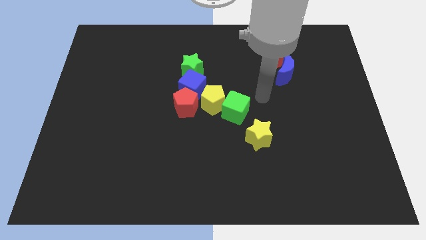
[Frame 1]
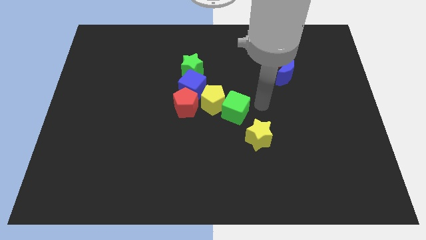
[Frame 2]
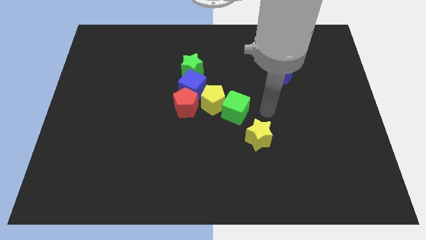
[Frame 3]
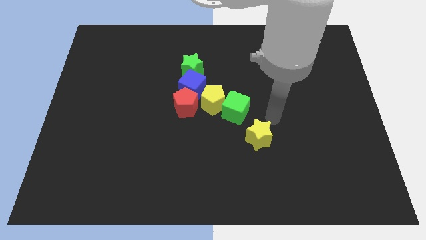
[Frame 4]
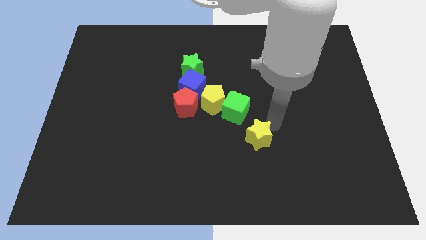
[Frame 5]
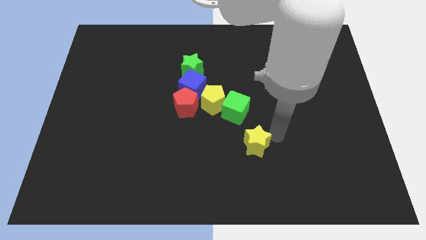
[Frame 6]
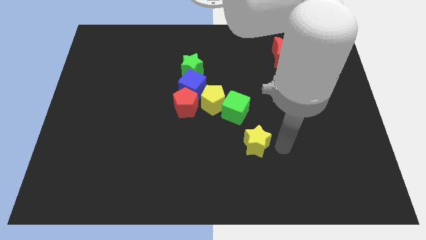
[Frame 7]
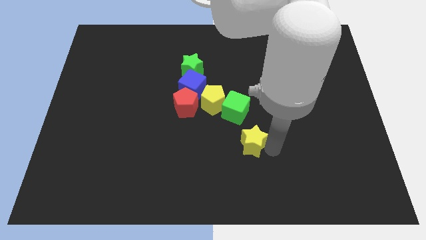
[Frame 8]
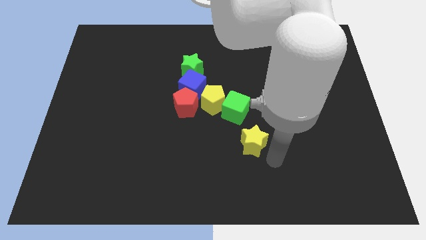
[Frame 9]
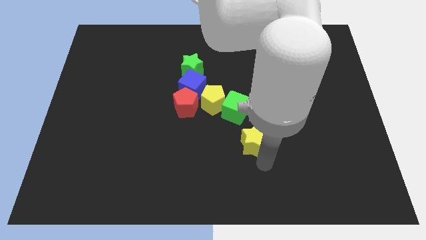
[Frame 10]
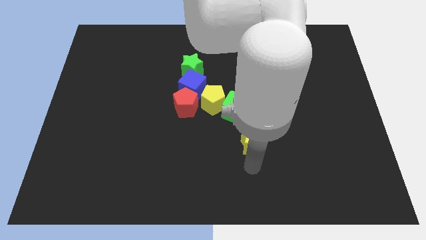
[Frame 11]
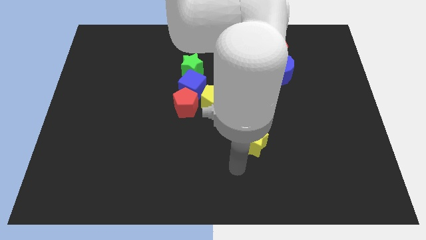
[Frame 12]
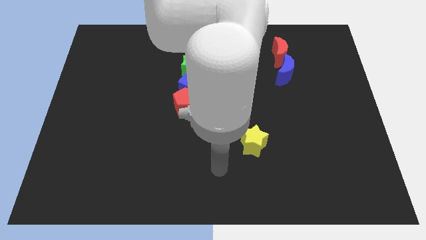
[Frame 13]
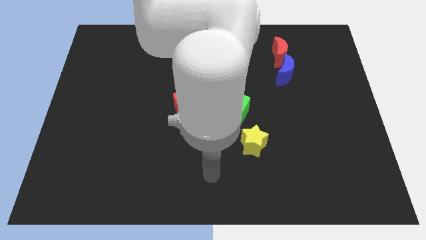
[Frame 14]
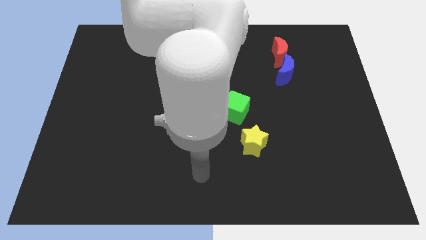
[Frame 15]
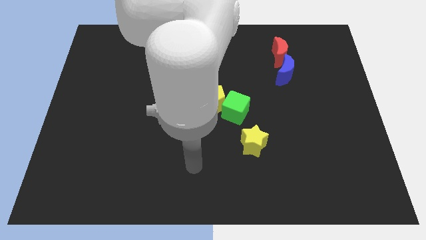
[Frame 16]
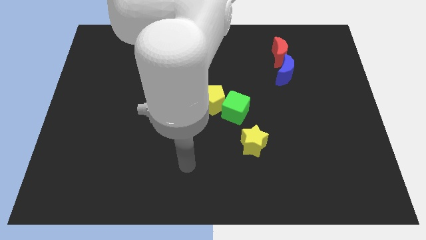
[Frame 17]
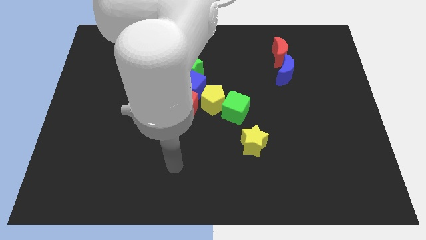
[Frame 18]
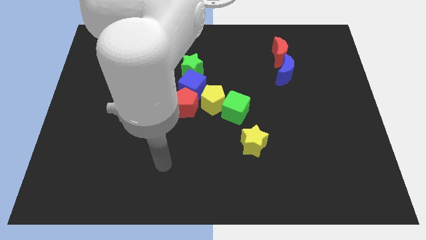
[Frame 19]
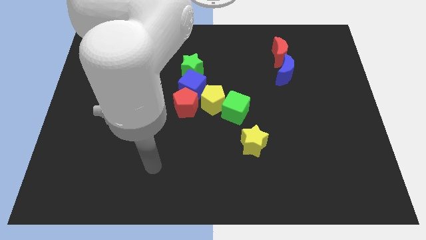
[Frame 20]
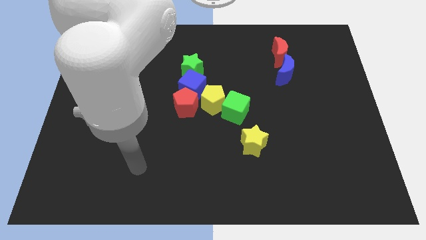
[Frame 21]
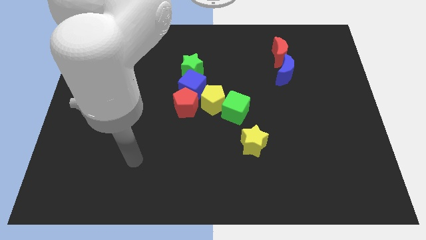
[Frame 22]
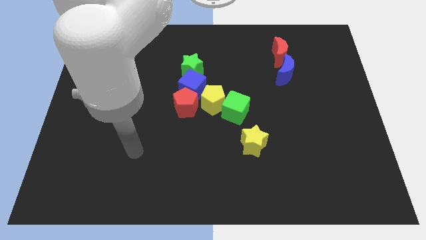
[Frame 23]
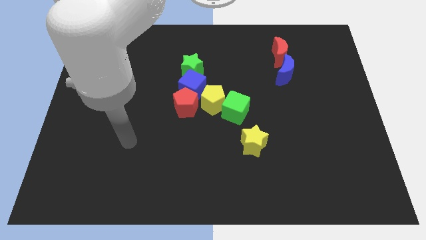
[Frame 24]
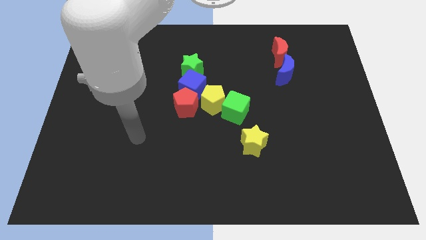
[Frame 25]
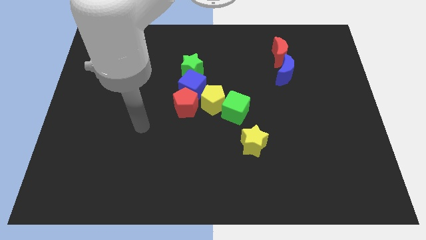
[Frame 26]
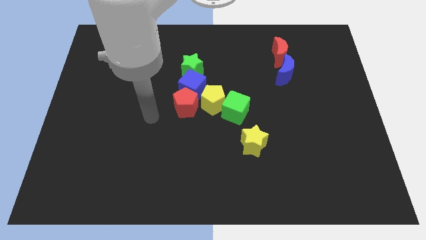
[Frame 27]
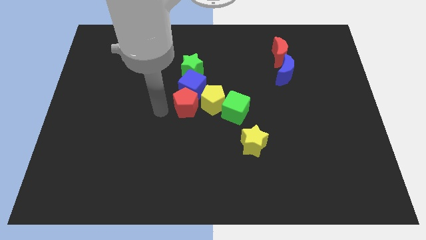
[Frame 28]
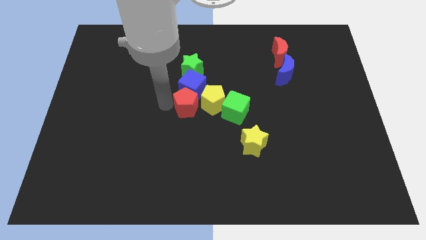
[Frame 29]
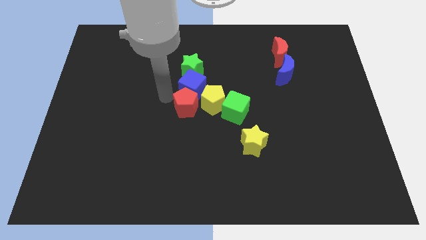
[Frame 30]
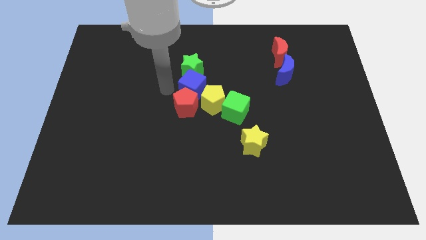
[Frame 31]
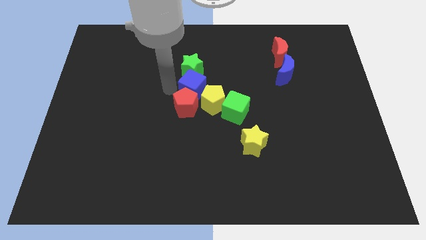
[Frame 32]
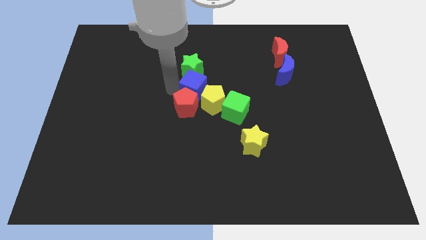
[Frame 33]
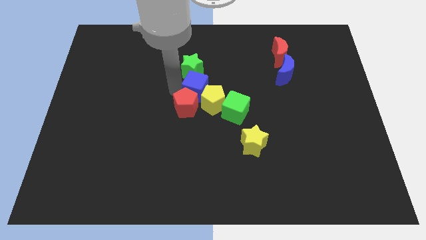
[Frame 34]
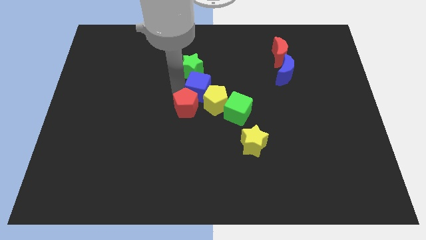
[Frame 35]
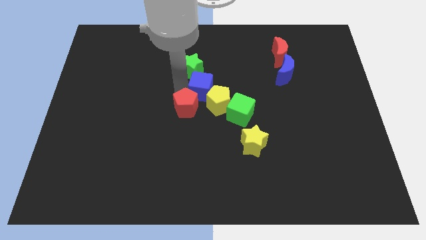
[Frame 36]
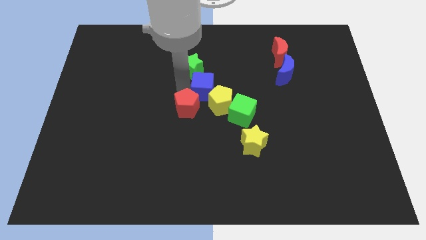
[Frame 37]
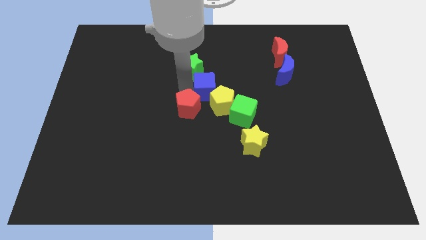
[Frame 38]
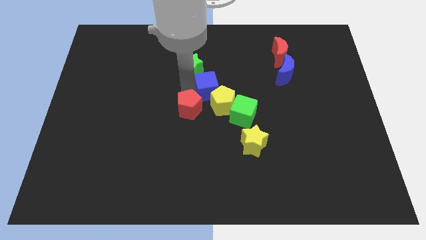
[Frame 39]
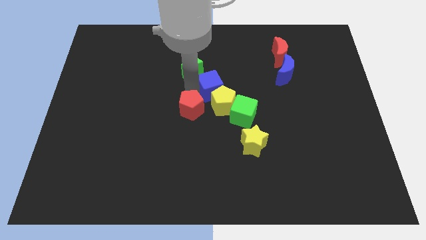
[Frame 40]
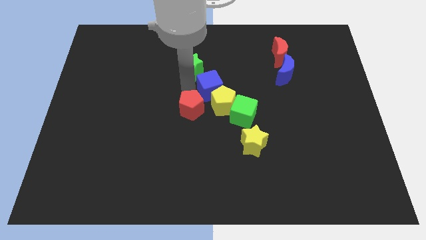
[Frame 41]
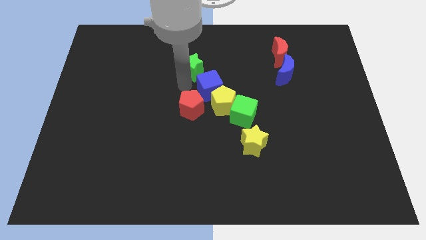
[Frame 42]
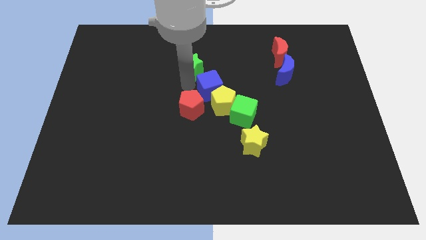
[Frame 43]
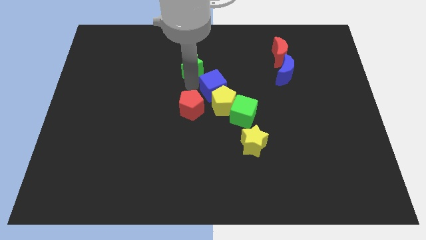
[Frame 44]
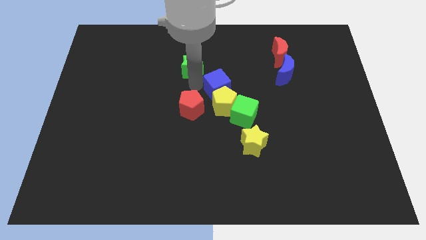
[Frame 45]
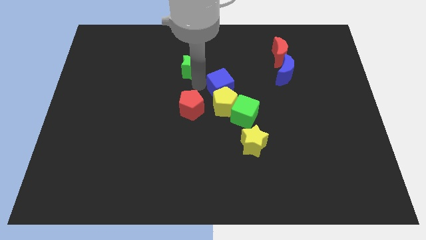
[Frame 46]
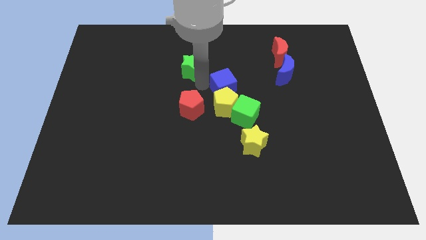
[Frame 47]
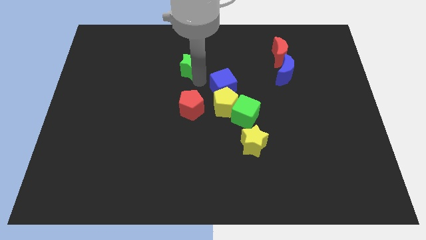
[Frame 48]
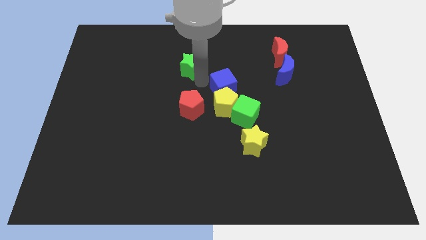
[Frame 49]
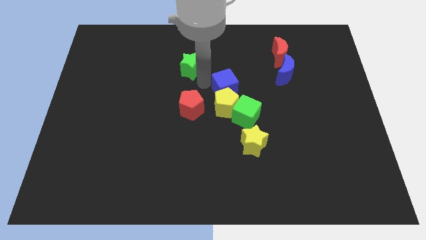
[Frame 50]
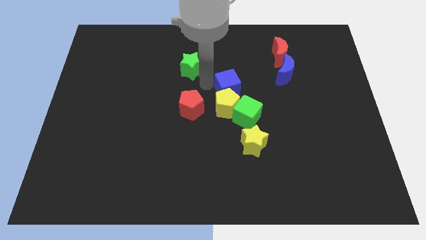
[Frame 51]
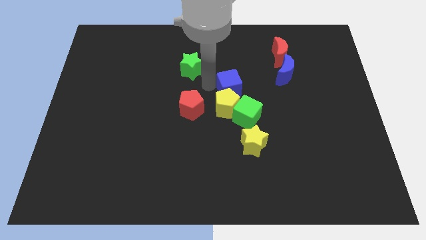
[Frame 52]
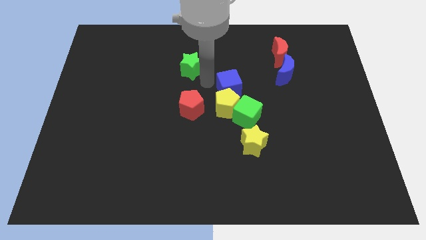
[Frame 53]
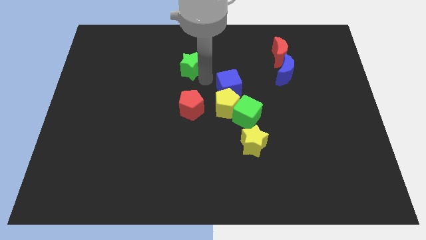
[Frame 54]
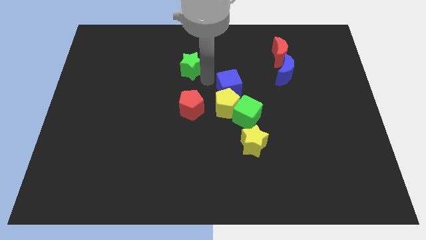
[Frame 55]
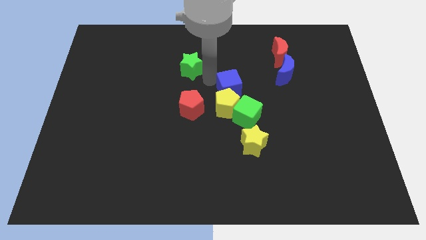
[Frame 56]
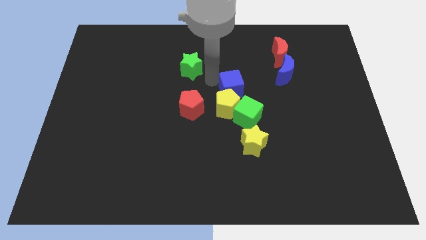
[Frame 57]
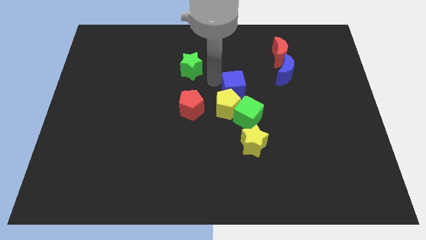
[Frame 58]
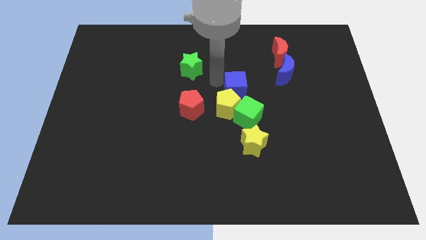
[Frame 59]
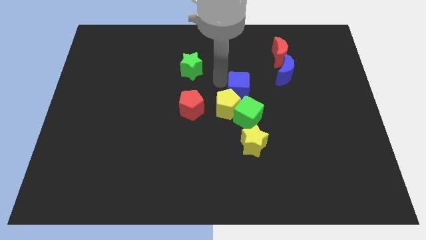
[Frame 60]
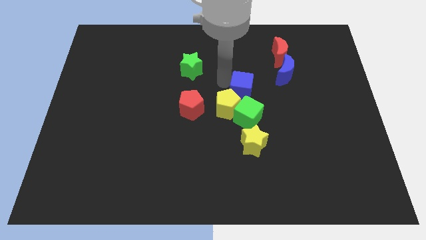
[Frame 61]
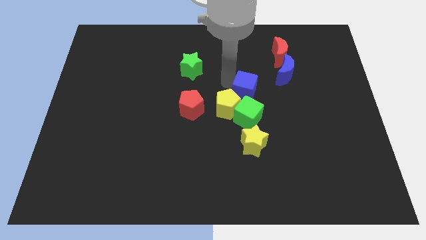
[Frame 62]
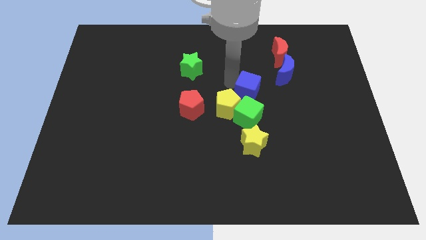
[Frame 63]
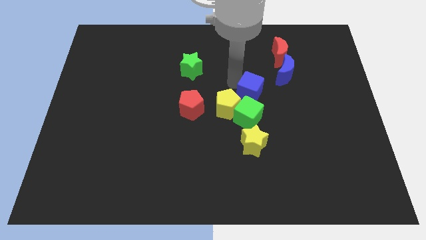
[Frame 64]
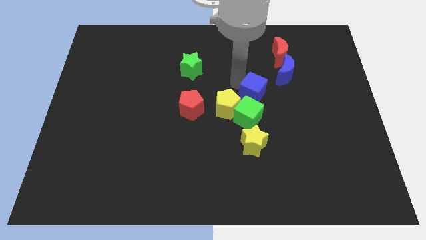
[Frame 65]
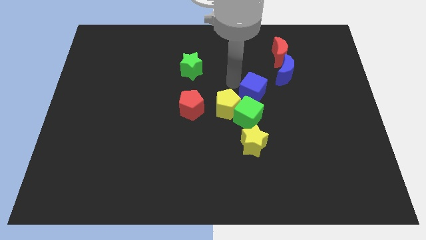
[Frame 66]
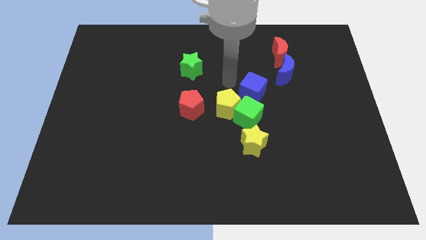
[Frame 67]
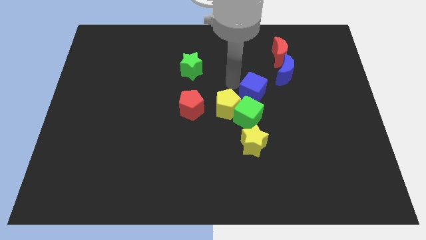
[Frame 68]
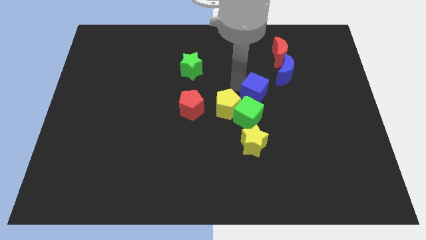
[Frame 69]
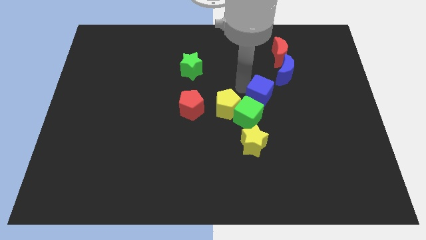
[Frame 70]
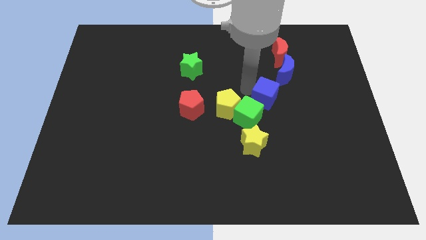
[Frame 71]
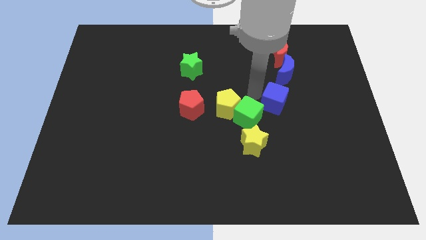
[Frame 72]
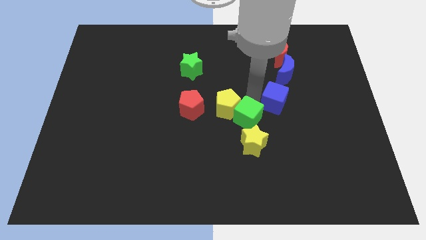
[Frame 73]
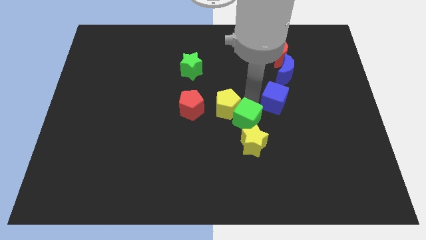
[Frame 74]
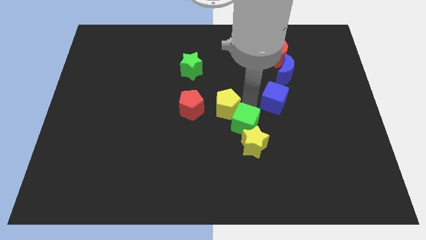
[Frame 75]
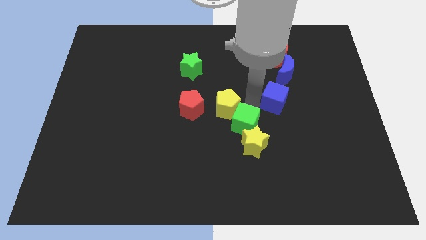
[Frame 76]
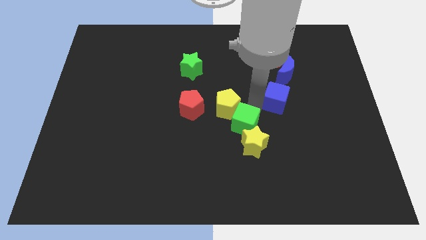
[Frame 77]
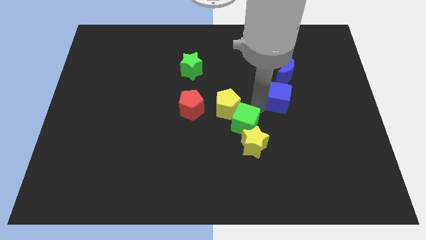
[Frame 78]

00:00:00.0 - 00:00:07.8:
slide the blue cube to the right

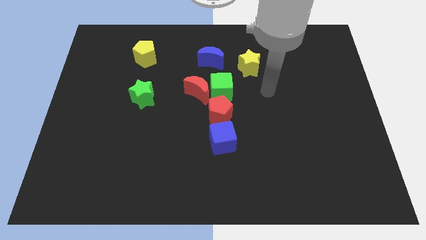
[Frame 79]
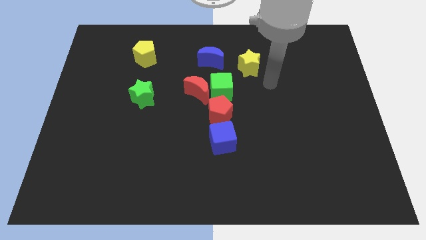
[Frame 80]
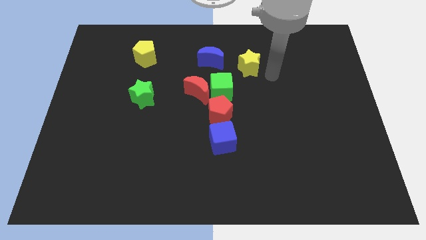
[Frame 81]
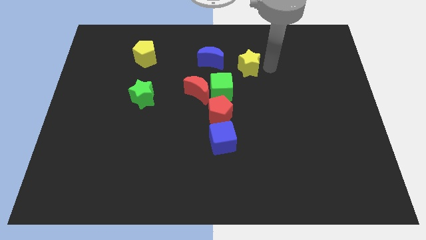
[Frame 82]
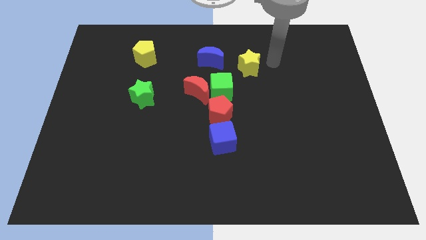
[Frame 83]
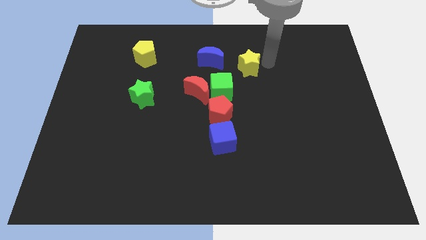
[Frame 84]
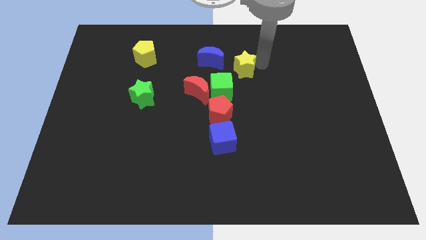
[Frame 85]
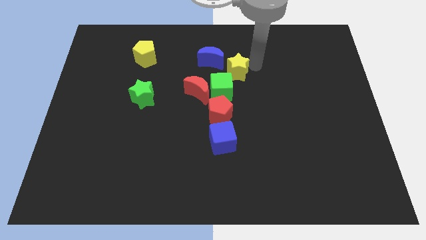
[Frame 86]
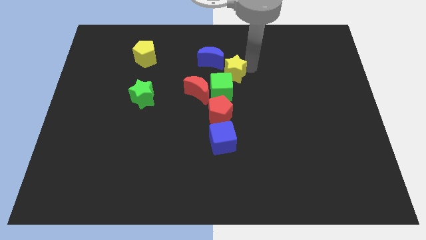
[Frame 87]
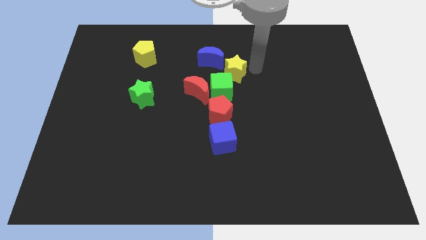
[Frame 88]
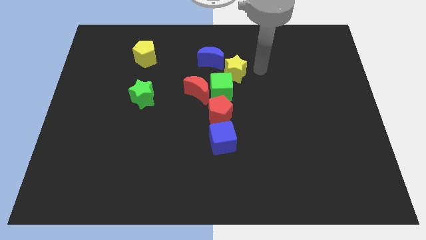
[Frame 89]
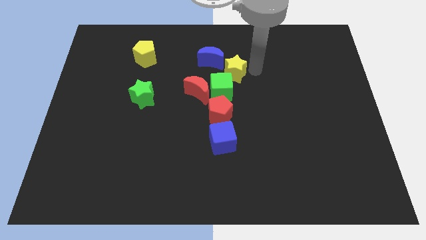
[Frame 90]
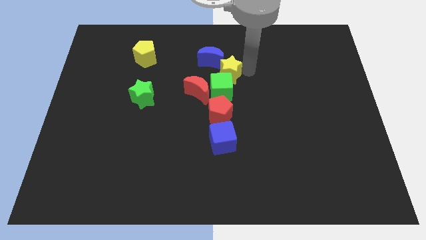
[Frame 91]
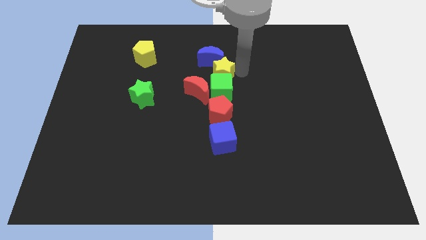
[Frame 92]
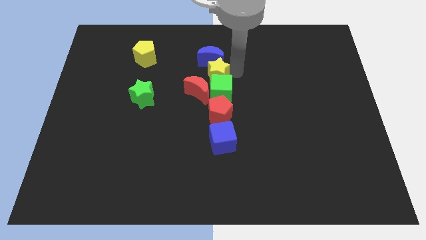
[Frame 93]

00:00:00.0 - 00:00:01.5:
slide the yellow star a little bit left
